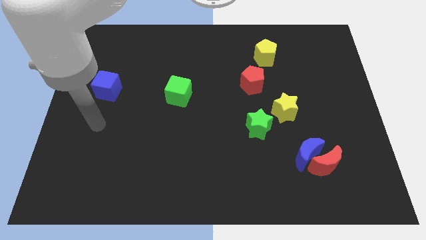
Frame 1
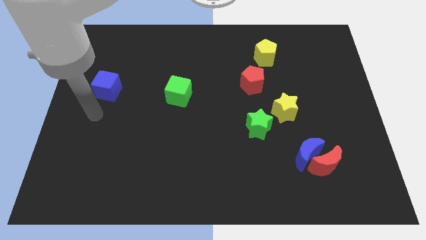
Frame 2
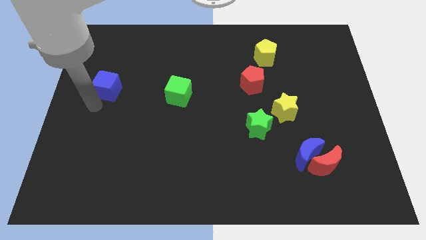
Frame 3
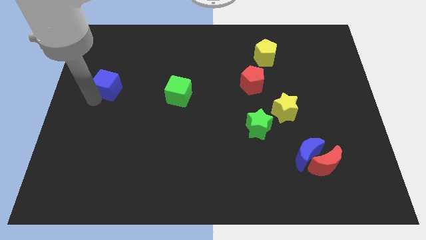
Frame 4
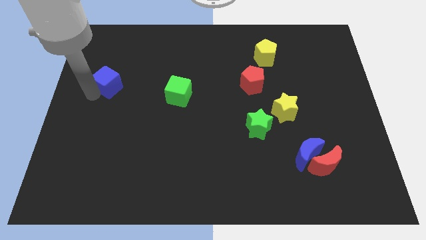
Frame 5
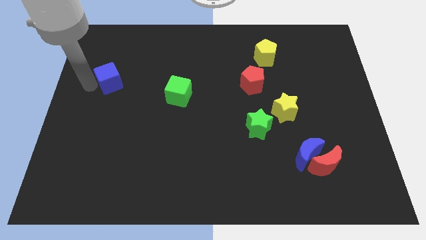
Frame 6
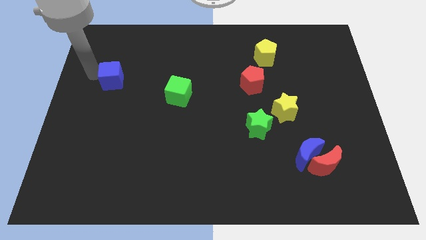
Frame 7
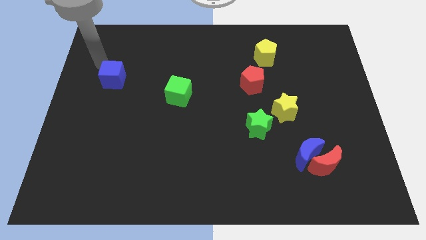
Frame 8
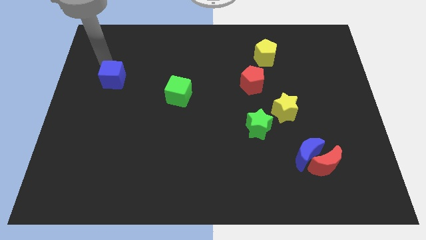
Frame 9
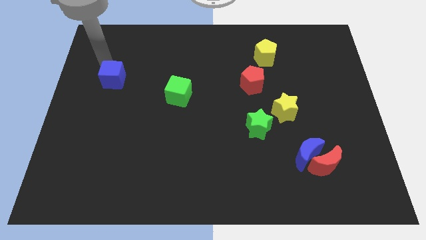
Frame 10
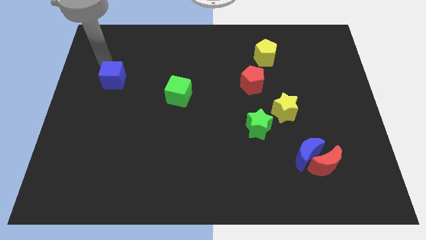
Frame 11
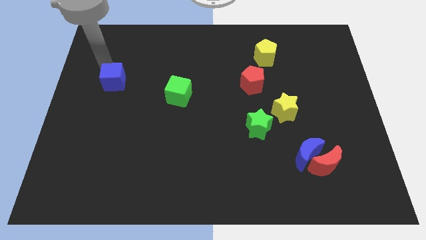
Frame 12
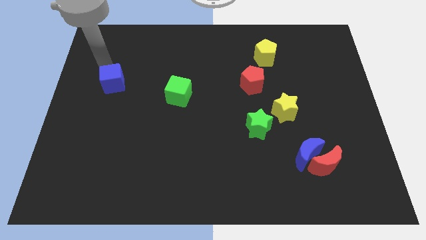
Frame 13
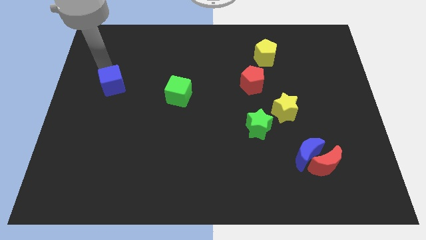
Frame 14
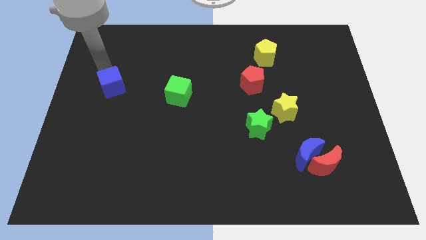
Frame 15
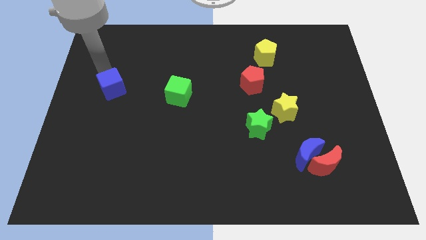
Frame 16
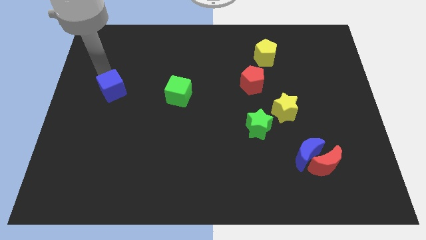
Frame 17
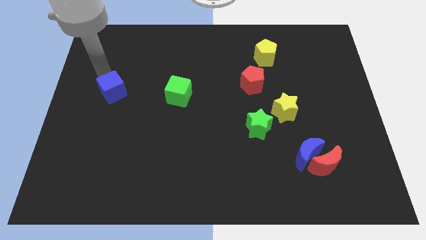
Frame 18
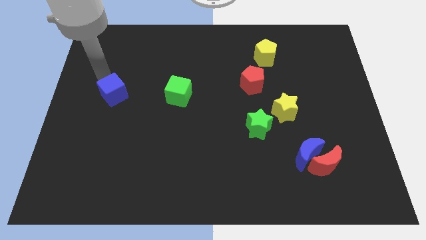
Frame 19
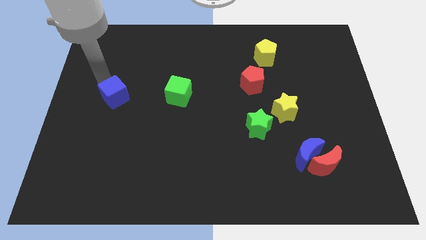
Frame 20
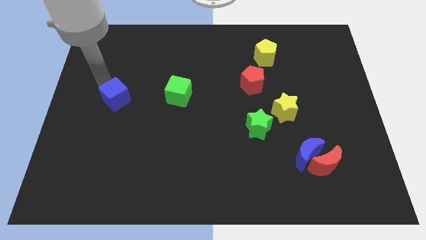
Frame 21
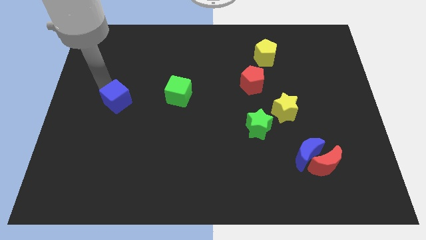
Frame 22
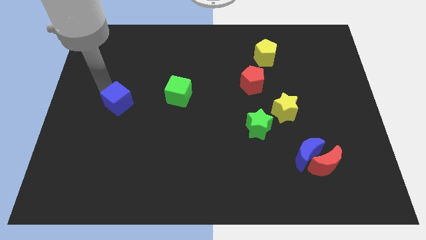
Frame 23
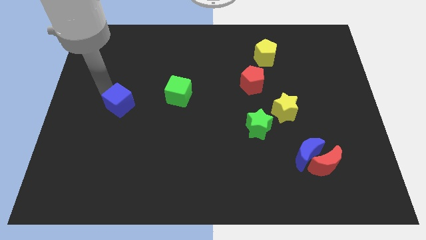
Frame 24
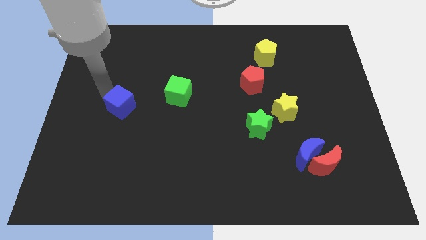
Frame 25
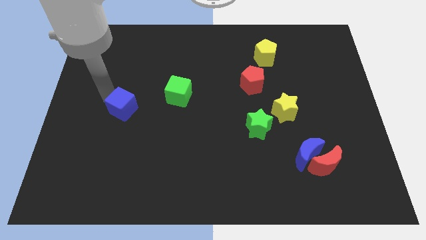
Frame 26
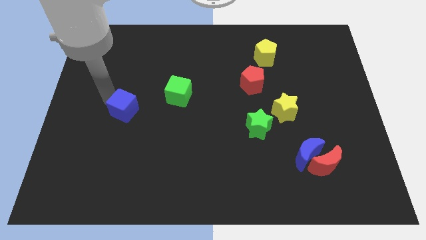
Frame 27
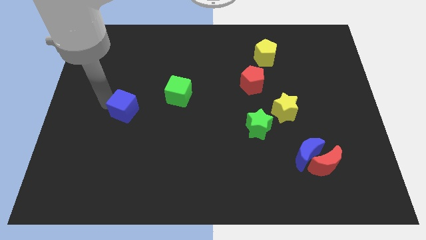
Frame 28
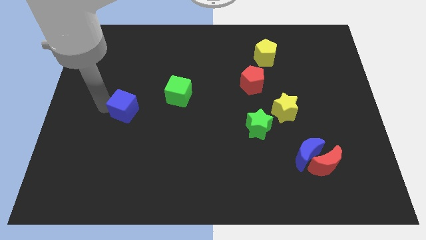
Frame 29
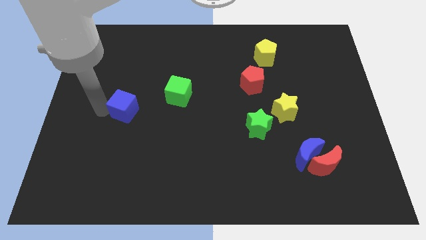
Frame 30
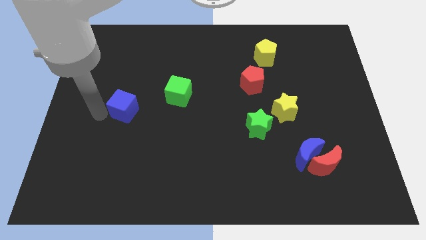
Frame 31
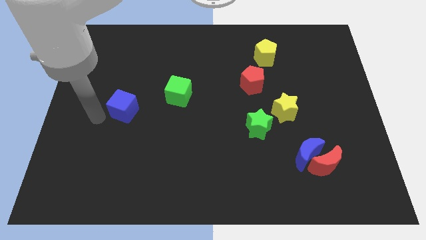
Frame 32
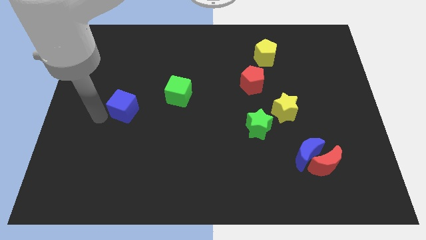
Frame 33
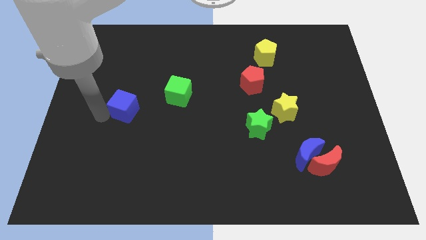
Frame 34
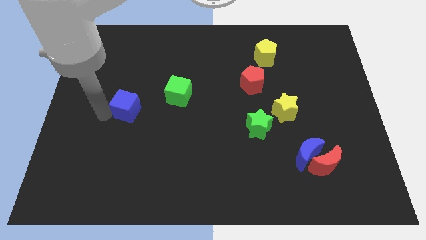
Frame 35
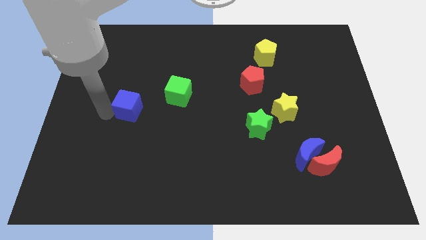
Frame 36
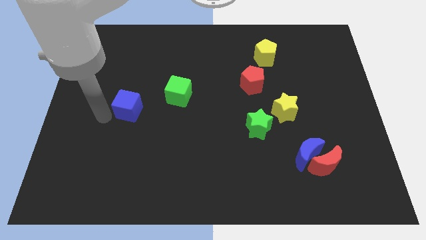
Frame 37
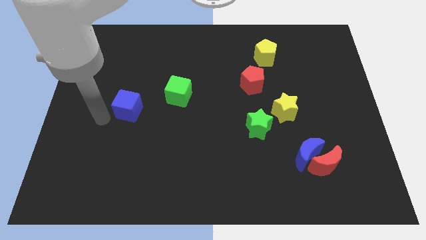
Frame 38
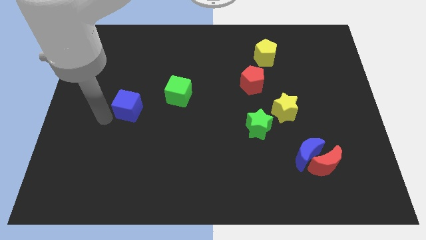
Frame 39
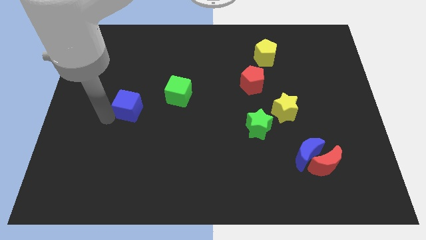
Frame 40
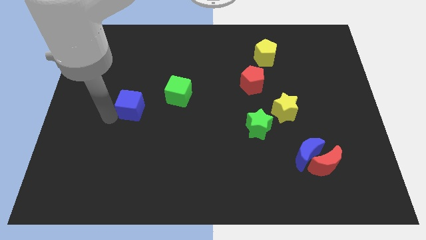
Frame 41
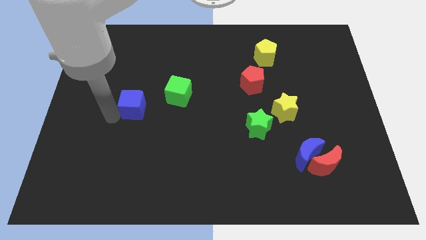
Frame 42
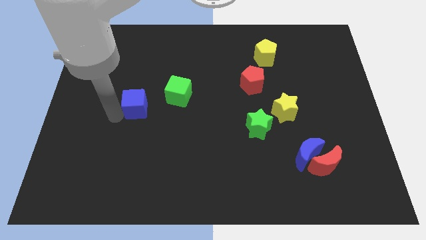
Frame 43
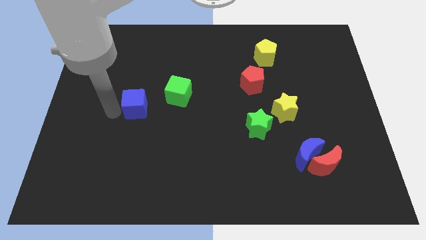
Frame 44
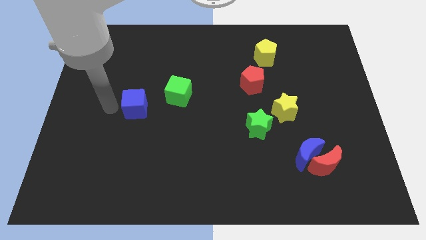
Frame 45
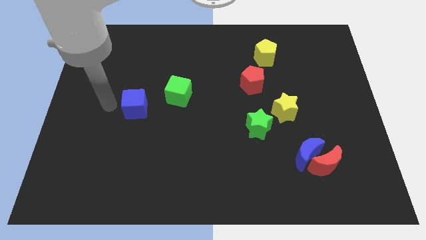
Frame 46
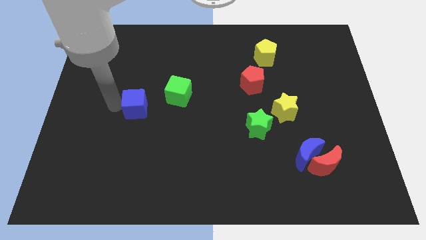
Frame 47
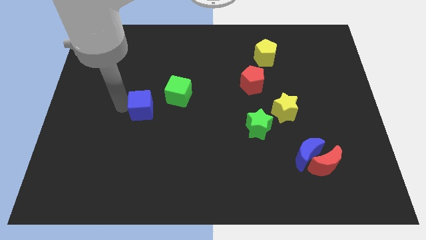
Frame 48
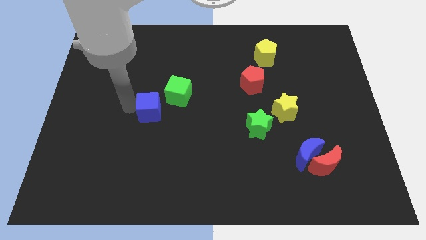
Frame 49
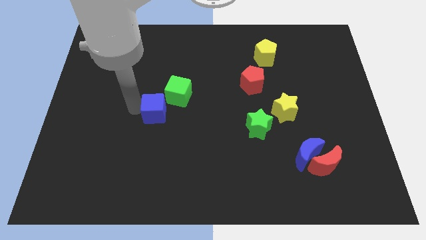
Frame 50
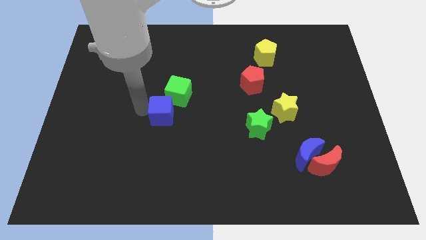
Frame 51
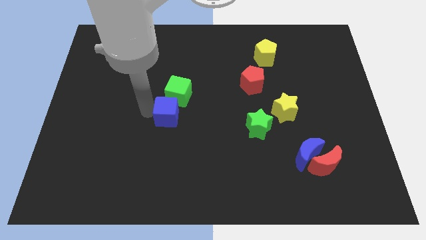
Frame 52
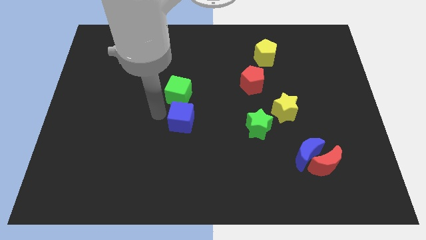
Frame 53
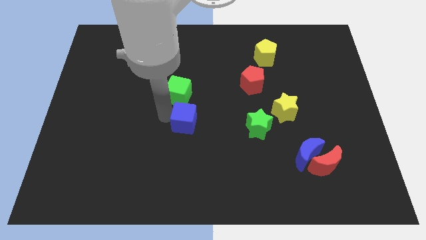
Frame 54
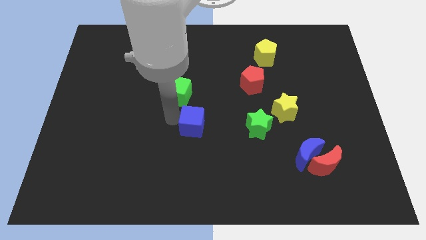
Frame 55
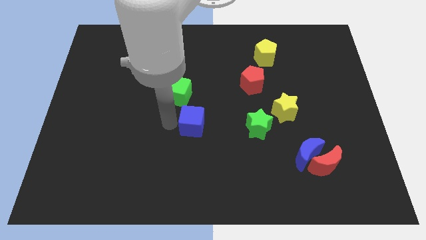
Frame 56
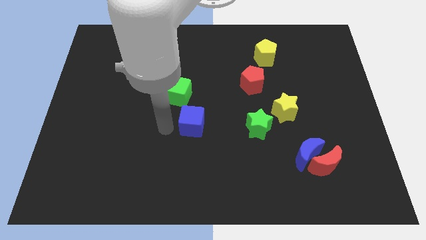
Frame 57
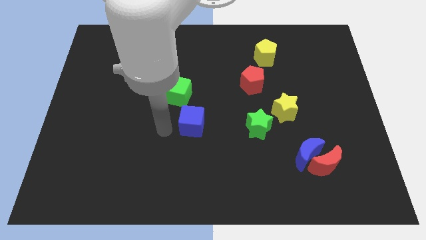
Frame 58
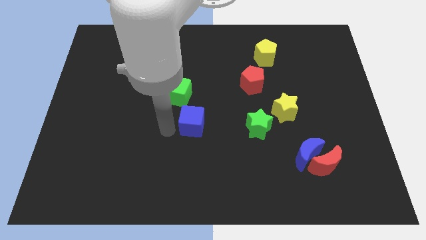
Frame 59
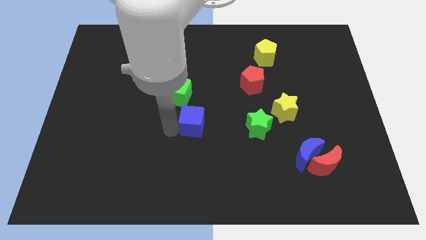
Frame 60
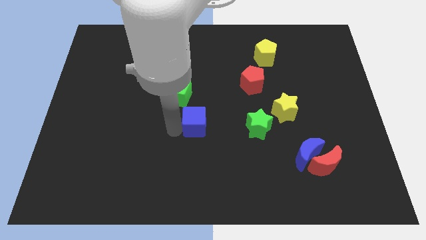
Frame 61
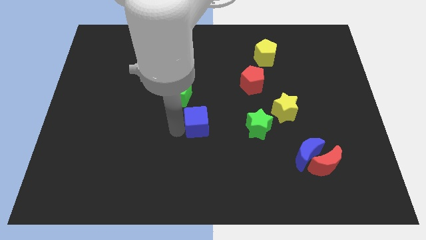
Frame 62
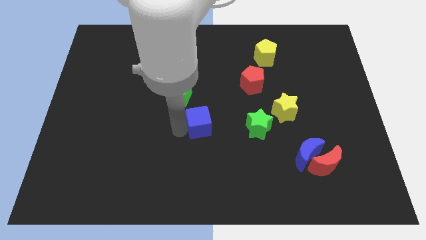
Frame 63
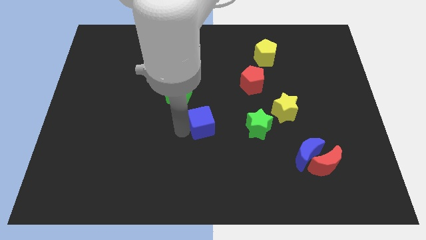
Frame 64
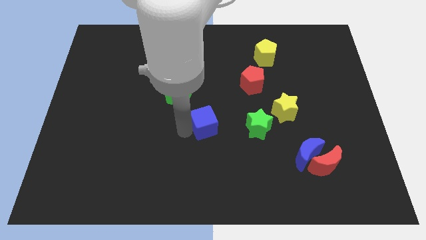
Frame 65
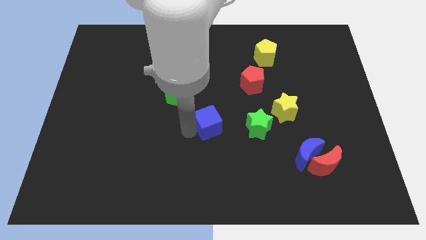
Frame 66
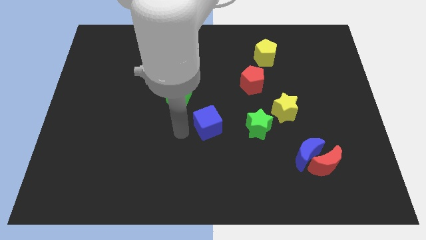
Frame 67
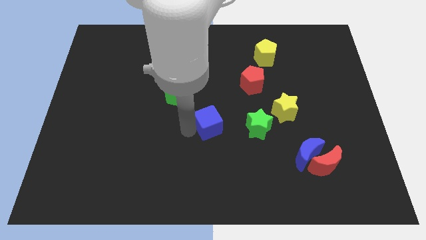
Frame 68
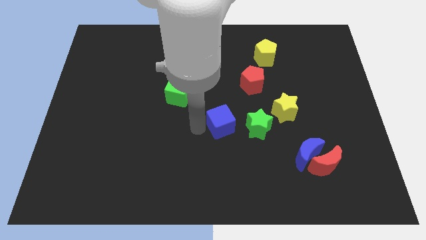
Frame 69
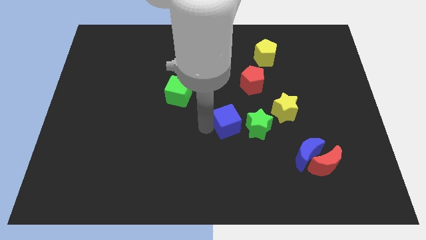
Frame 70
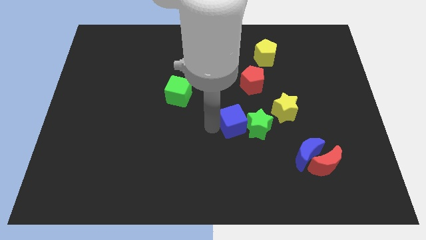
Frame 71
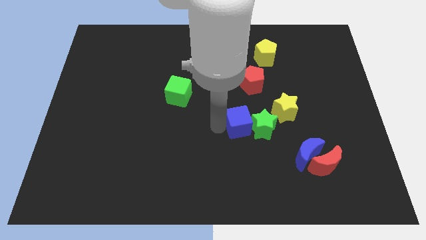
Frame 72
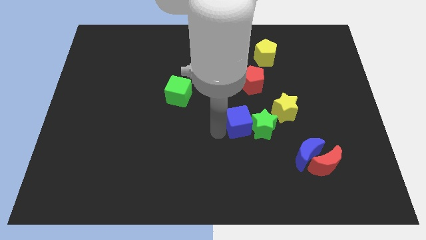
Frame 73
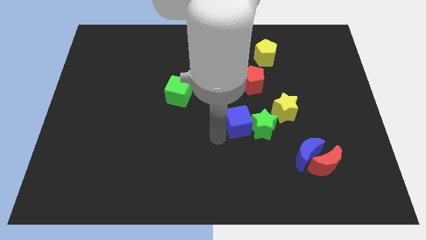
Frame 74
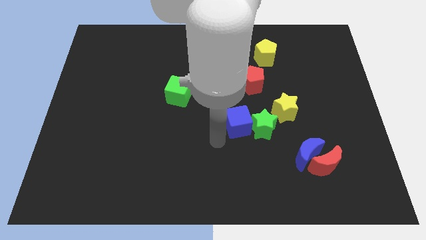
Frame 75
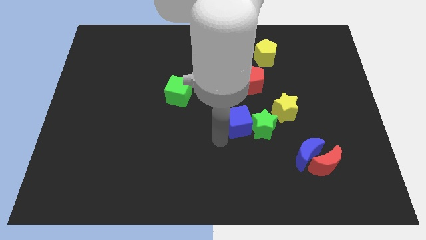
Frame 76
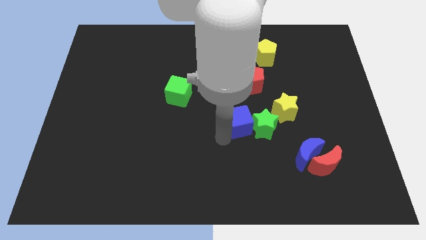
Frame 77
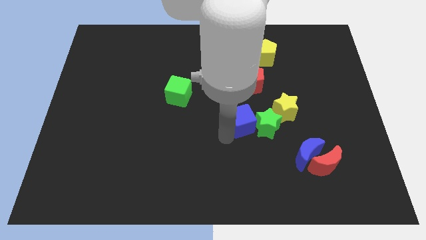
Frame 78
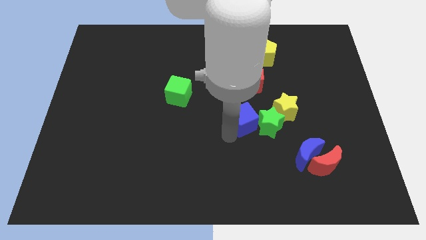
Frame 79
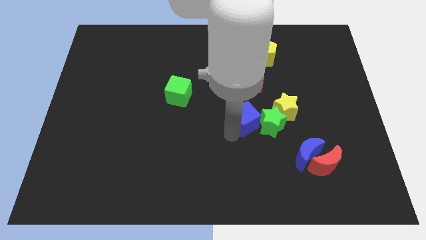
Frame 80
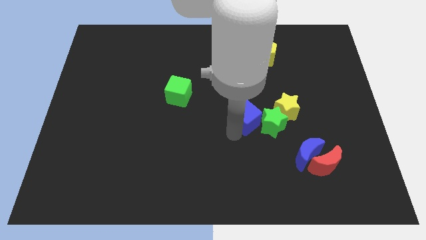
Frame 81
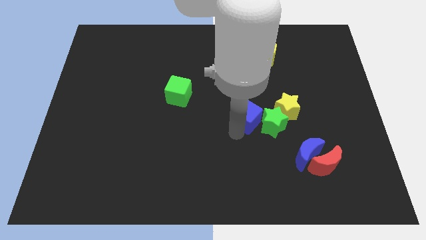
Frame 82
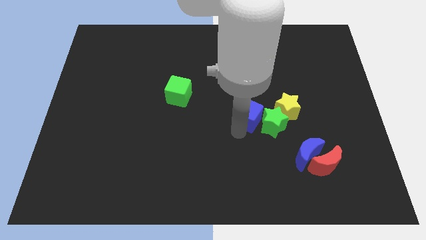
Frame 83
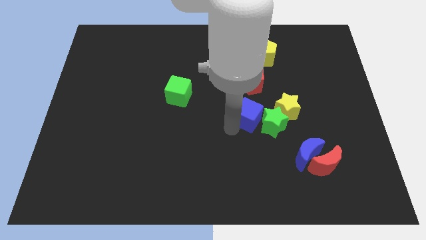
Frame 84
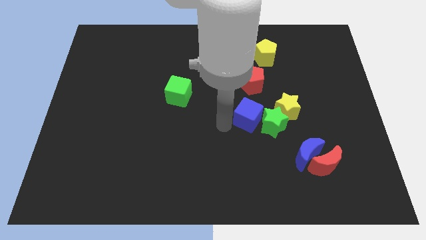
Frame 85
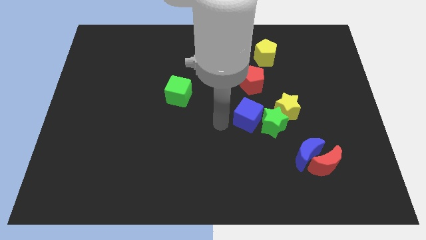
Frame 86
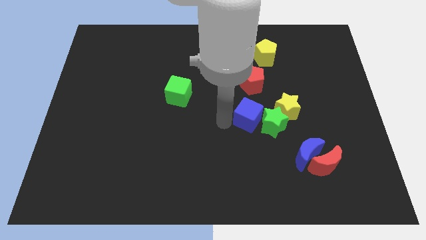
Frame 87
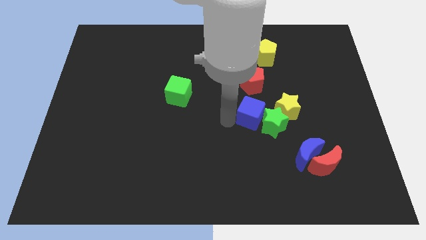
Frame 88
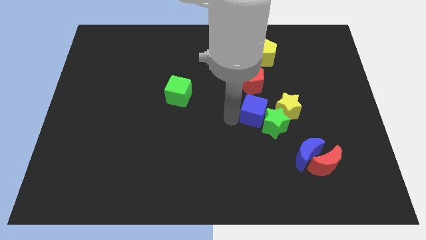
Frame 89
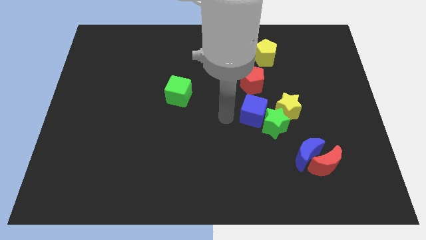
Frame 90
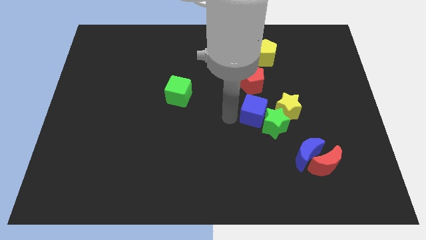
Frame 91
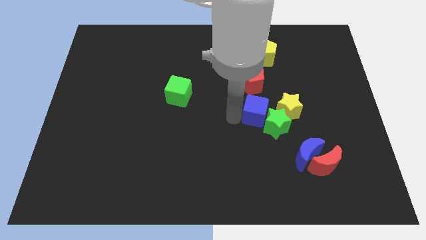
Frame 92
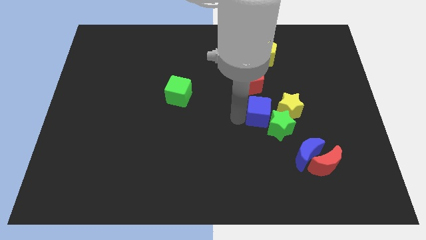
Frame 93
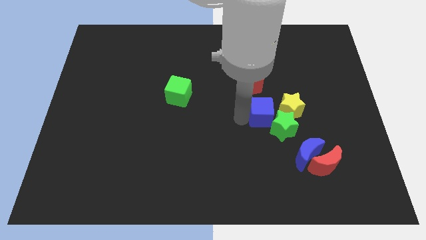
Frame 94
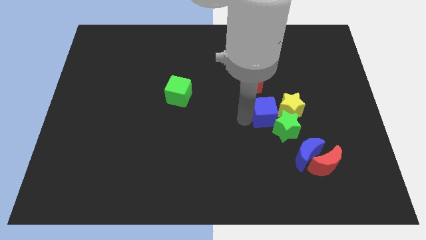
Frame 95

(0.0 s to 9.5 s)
put the blue cube to the yellow star
